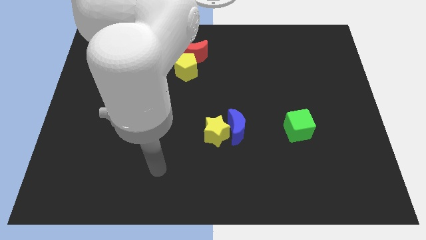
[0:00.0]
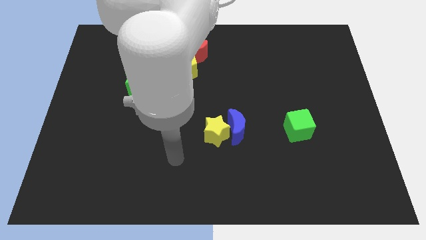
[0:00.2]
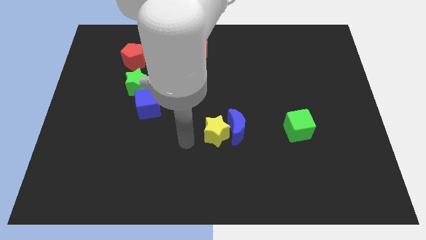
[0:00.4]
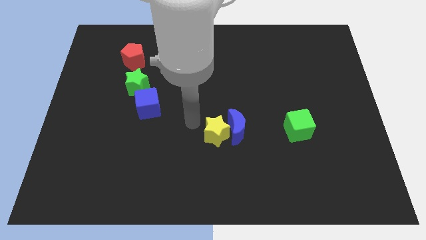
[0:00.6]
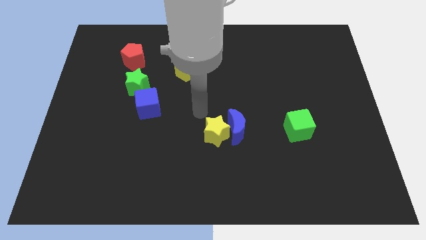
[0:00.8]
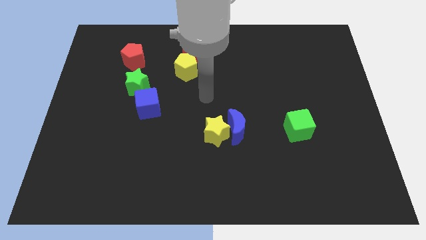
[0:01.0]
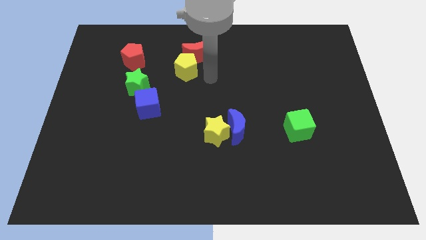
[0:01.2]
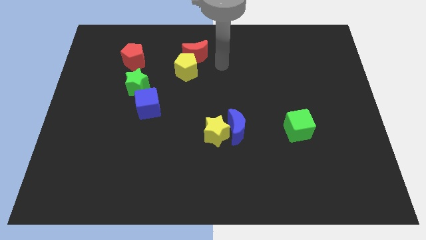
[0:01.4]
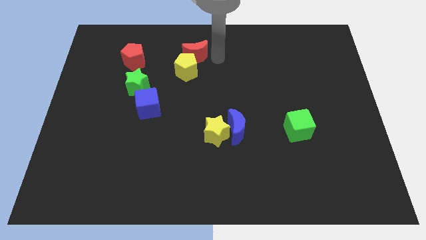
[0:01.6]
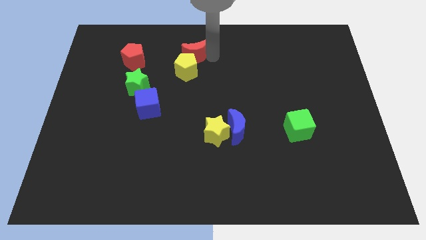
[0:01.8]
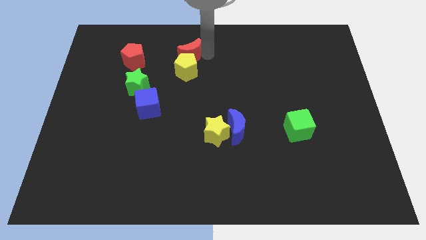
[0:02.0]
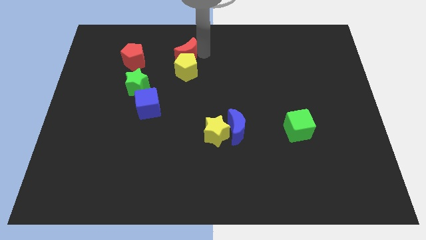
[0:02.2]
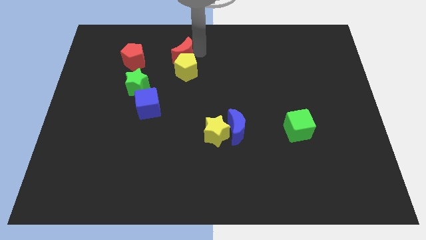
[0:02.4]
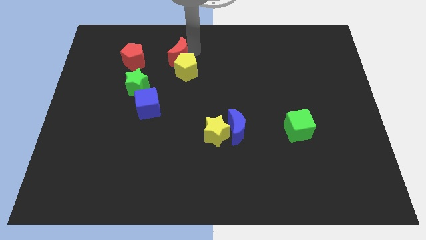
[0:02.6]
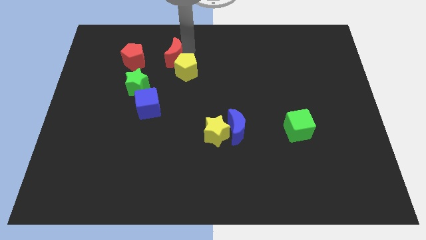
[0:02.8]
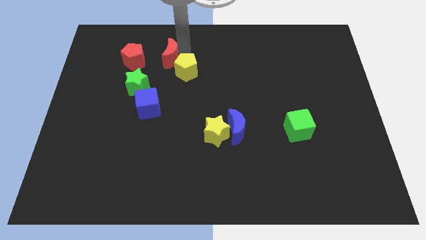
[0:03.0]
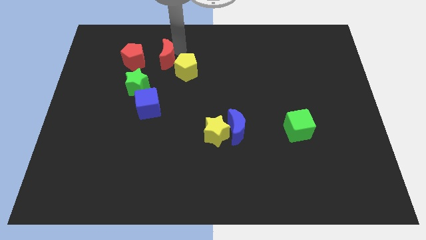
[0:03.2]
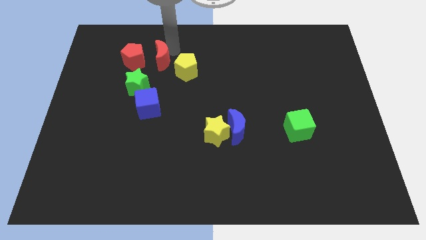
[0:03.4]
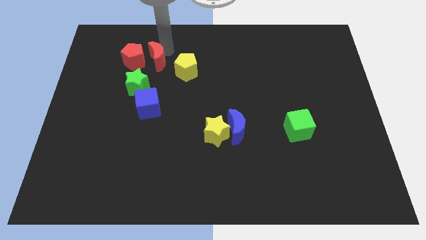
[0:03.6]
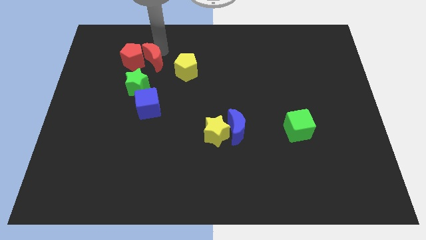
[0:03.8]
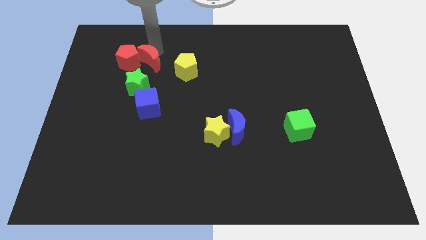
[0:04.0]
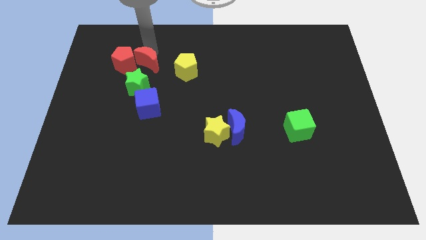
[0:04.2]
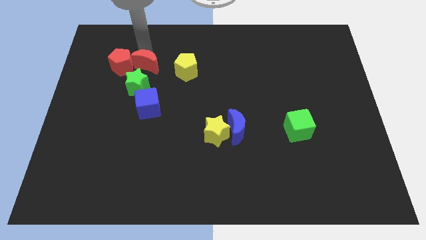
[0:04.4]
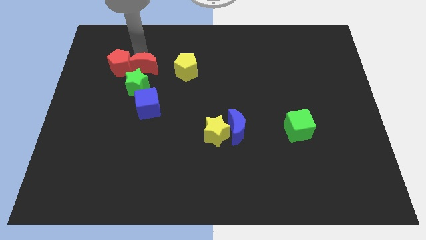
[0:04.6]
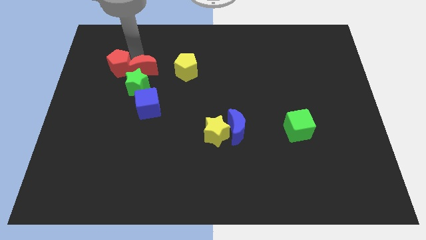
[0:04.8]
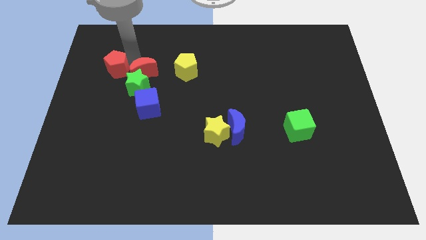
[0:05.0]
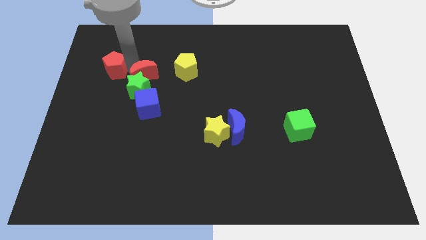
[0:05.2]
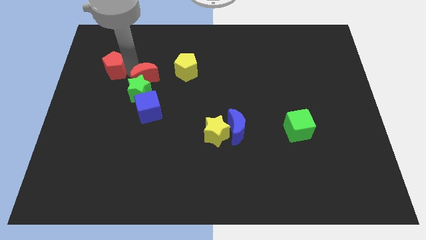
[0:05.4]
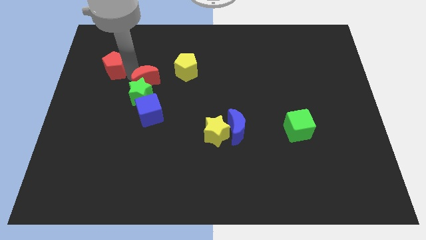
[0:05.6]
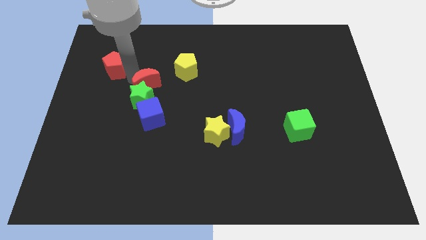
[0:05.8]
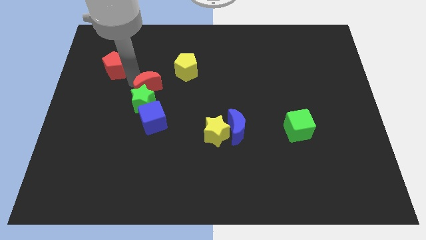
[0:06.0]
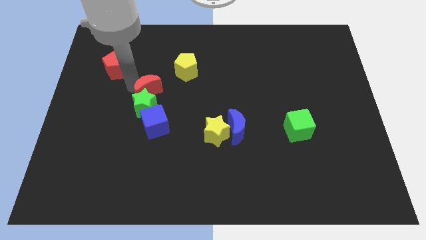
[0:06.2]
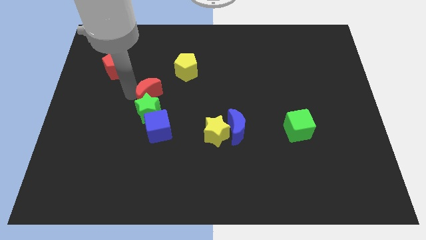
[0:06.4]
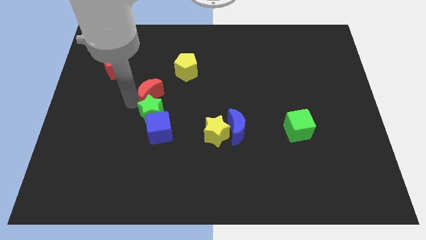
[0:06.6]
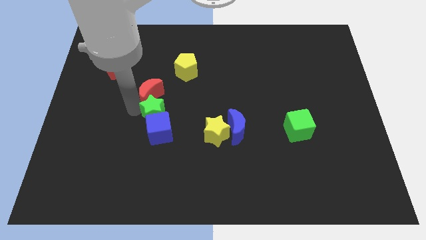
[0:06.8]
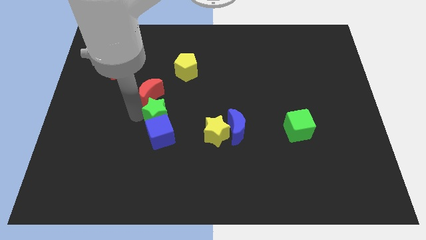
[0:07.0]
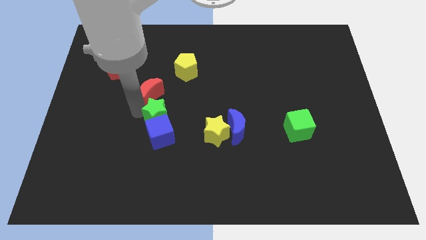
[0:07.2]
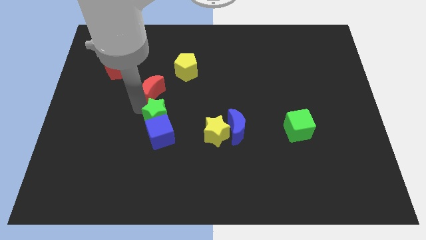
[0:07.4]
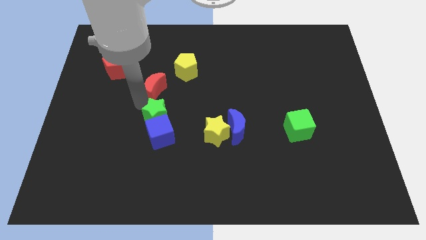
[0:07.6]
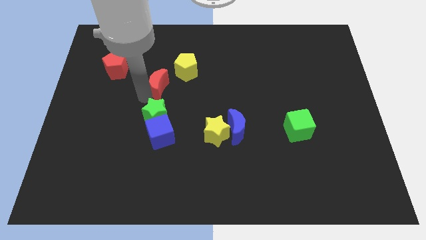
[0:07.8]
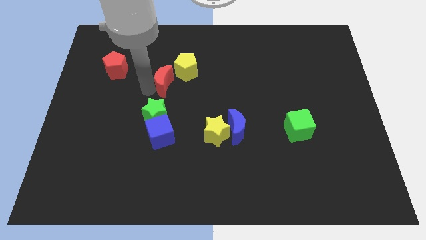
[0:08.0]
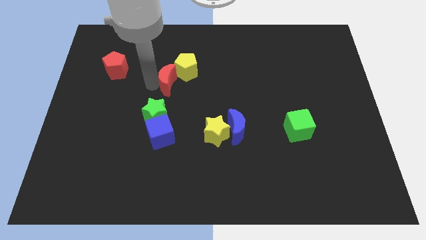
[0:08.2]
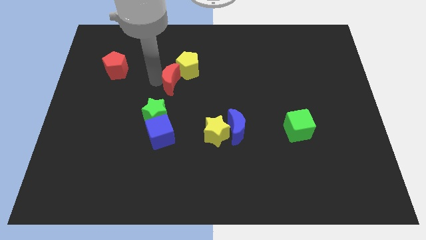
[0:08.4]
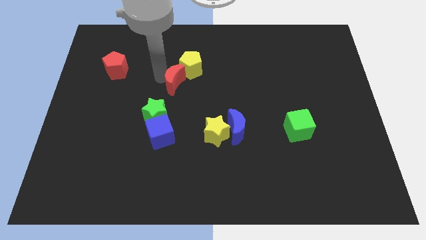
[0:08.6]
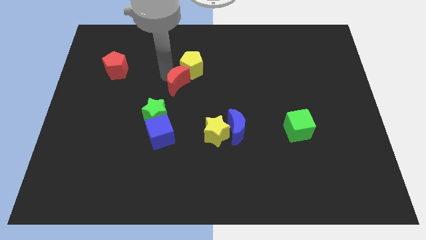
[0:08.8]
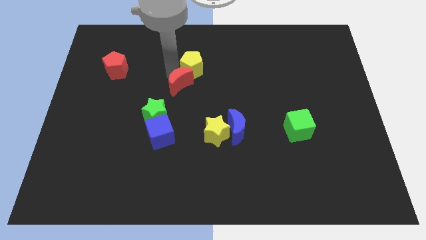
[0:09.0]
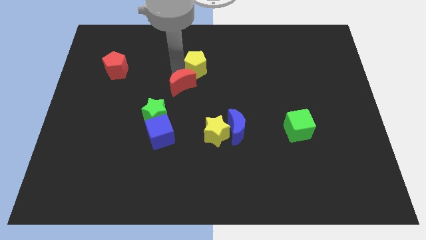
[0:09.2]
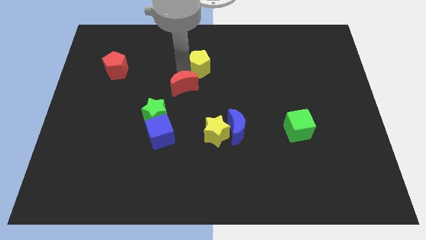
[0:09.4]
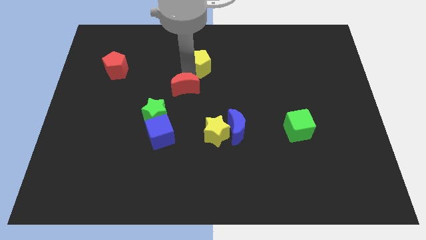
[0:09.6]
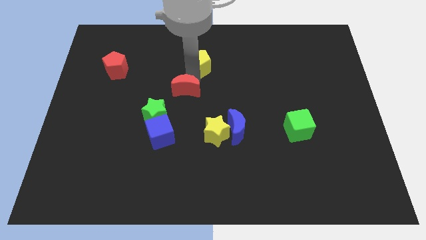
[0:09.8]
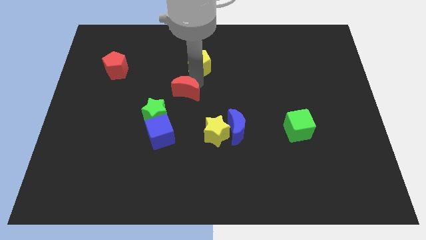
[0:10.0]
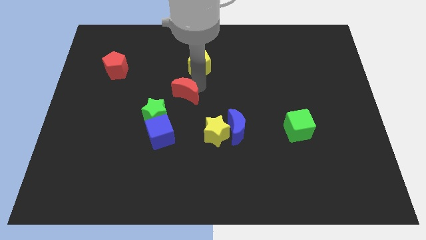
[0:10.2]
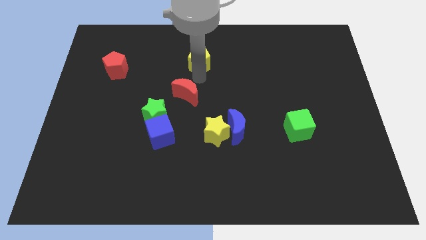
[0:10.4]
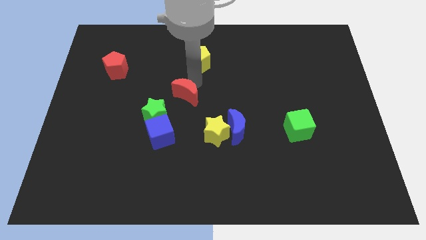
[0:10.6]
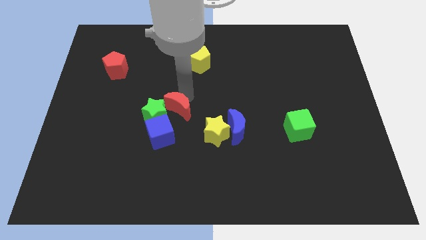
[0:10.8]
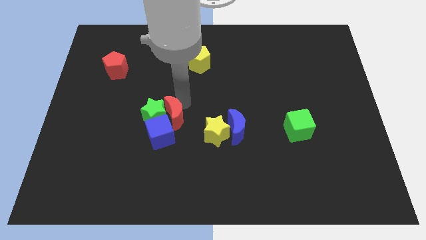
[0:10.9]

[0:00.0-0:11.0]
slide the red moon close to the blue cube

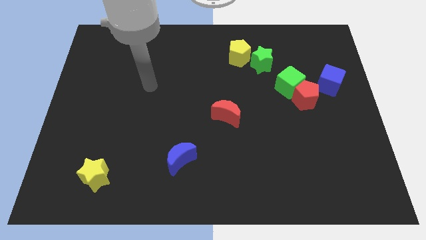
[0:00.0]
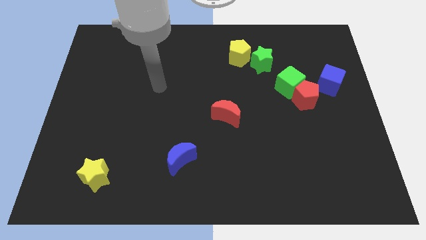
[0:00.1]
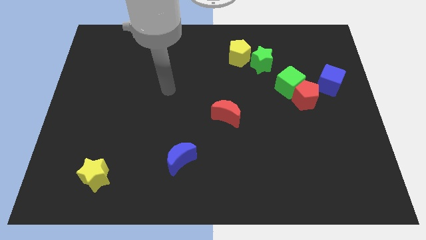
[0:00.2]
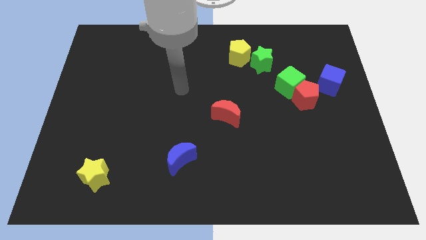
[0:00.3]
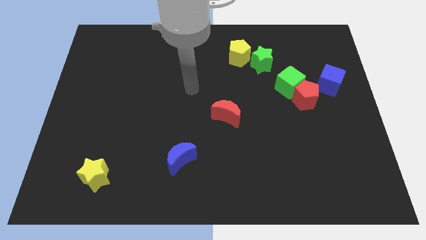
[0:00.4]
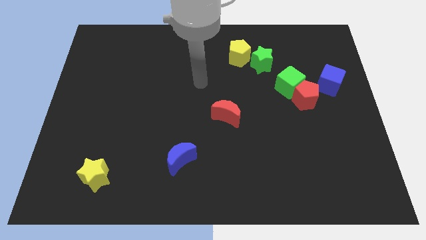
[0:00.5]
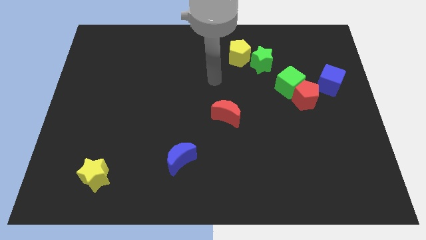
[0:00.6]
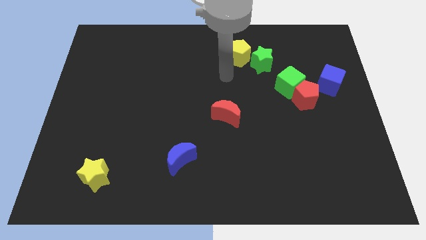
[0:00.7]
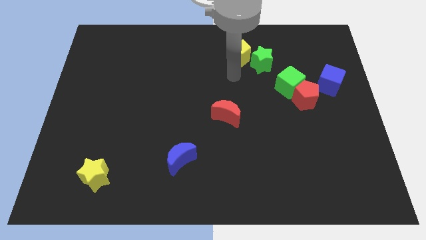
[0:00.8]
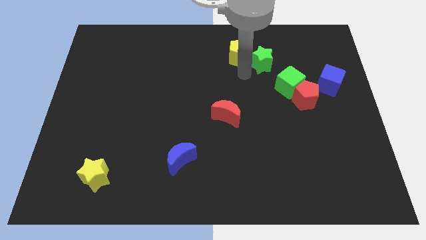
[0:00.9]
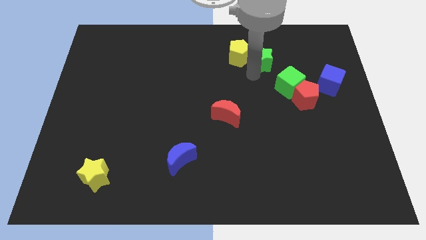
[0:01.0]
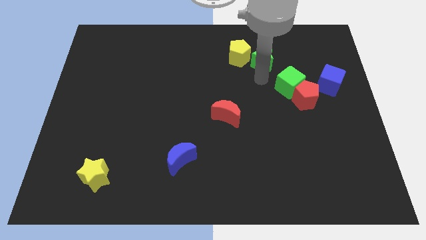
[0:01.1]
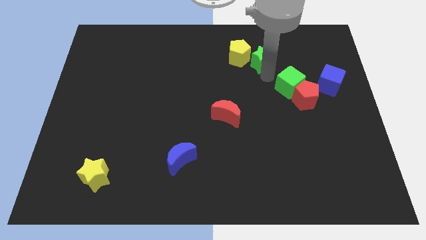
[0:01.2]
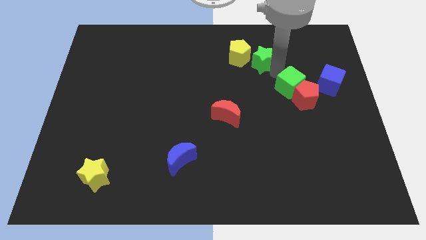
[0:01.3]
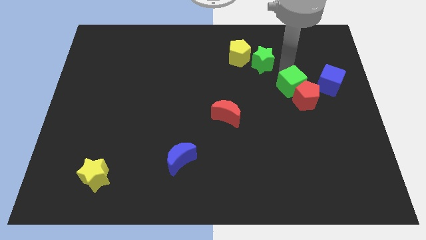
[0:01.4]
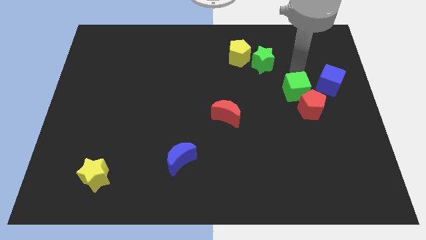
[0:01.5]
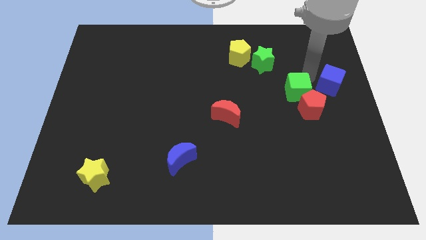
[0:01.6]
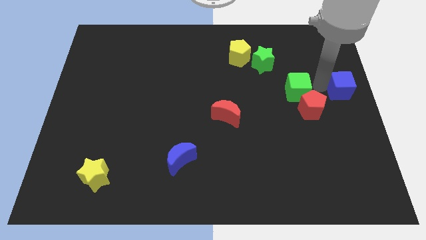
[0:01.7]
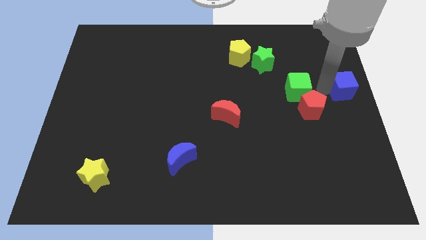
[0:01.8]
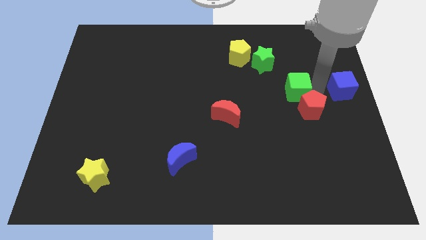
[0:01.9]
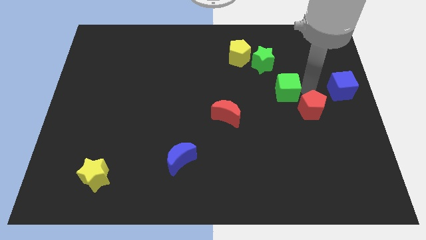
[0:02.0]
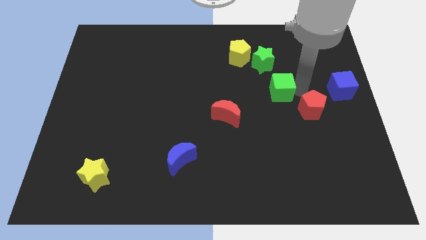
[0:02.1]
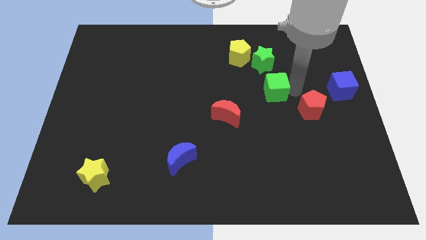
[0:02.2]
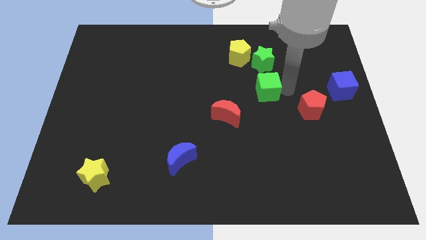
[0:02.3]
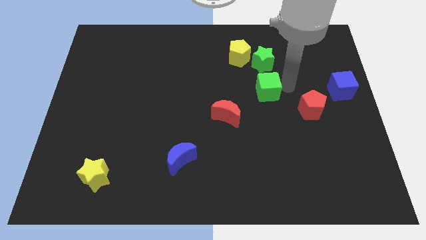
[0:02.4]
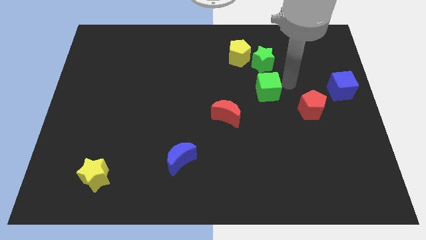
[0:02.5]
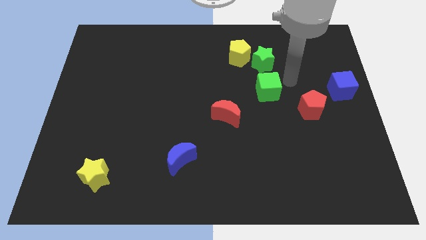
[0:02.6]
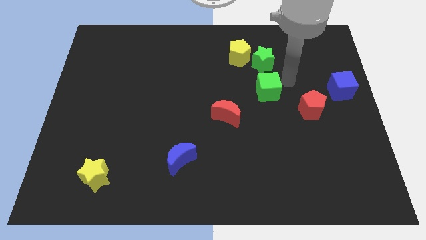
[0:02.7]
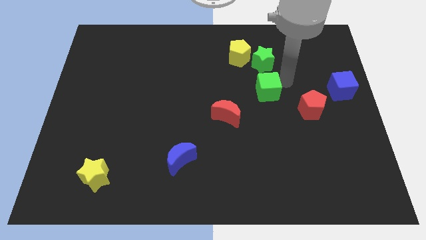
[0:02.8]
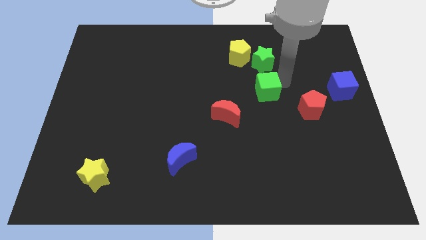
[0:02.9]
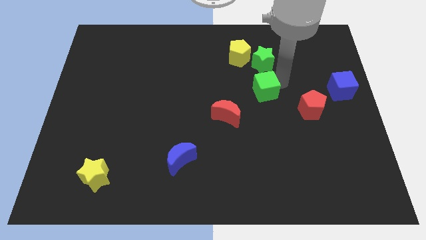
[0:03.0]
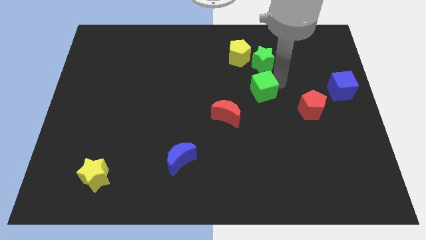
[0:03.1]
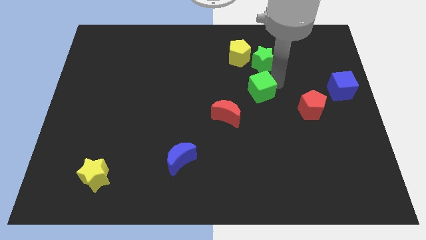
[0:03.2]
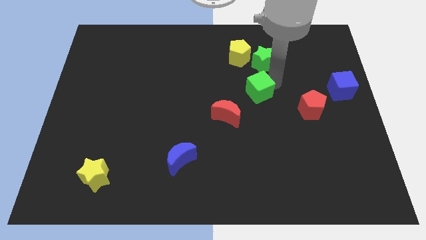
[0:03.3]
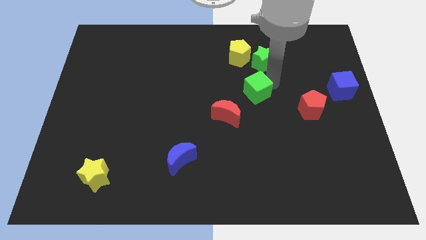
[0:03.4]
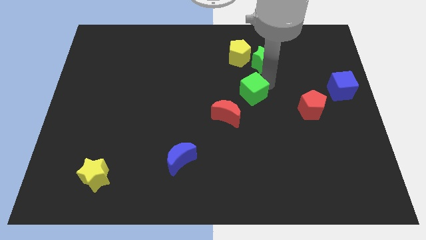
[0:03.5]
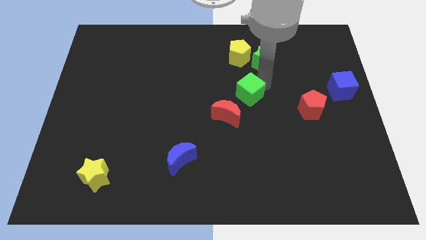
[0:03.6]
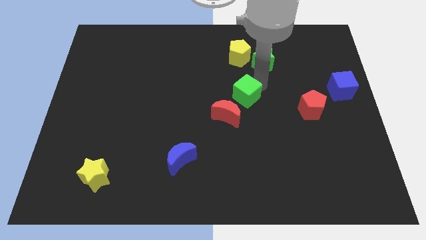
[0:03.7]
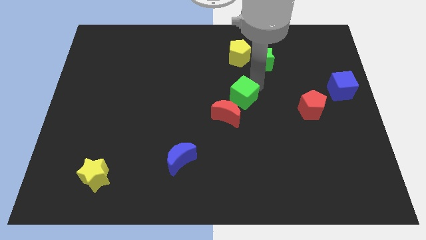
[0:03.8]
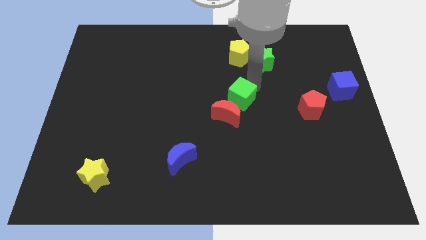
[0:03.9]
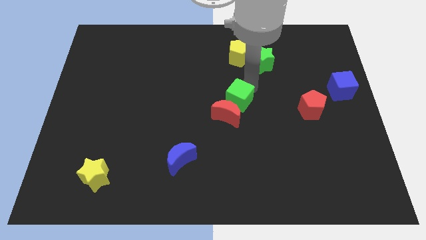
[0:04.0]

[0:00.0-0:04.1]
move the green cube to the red moon
